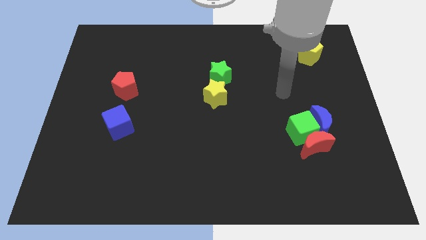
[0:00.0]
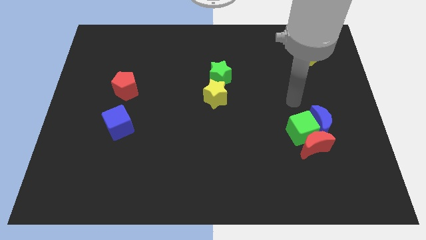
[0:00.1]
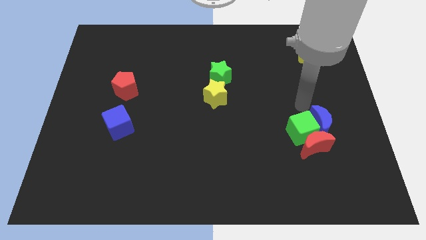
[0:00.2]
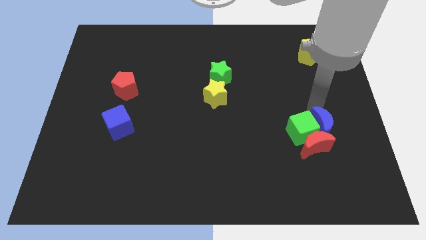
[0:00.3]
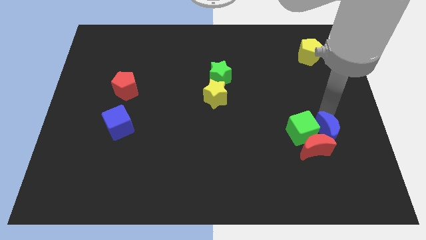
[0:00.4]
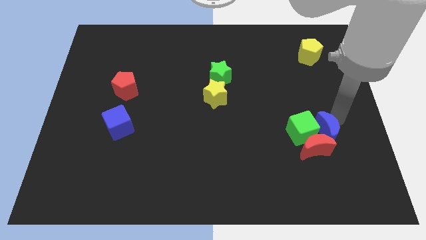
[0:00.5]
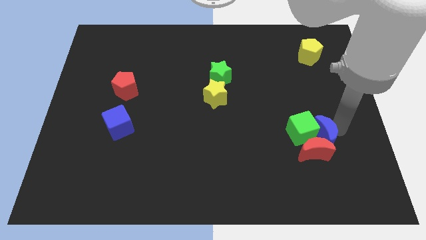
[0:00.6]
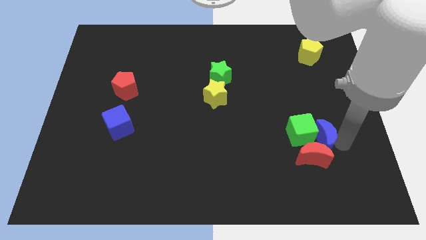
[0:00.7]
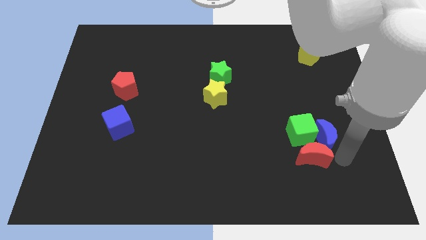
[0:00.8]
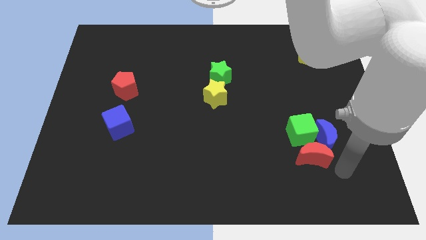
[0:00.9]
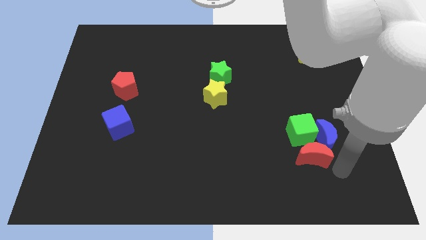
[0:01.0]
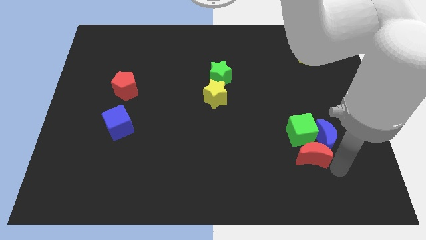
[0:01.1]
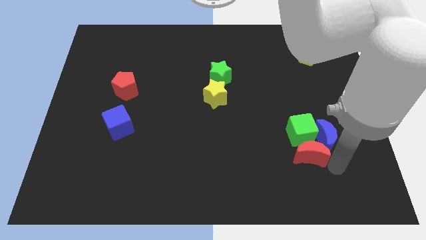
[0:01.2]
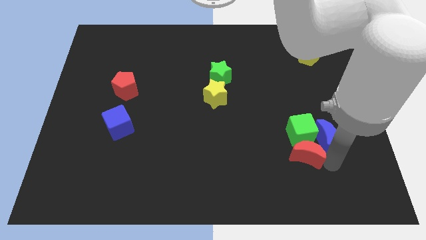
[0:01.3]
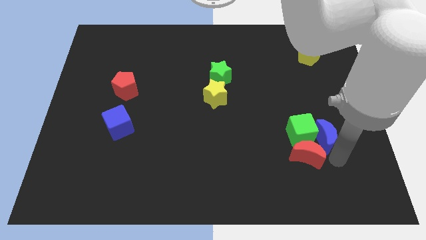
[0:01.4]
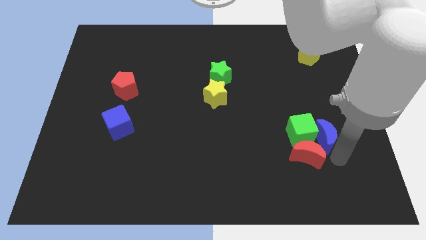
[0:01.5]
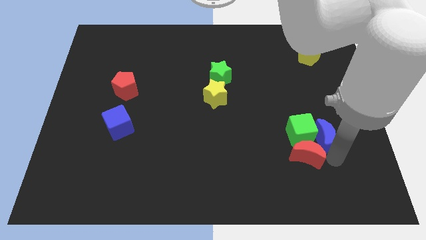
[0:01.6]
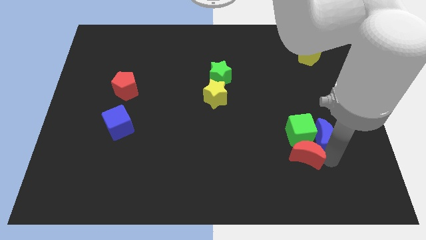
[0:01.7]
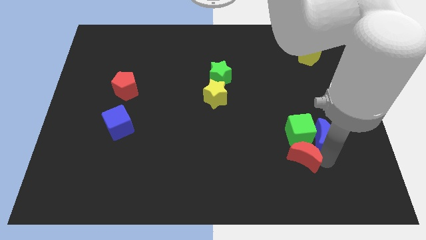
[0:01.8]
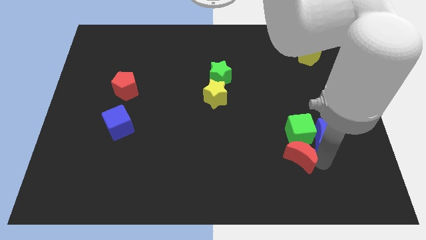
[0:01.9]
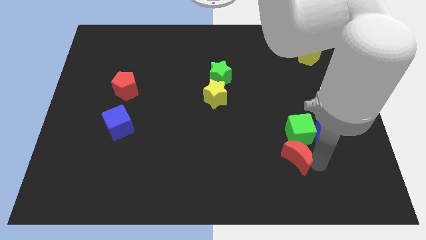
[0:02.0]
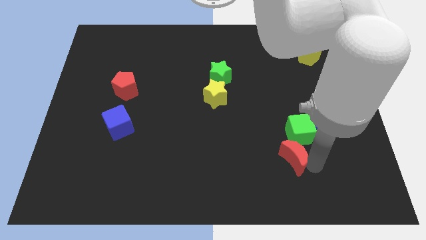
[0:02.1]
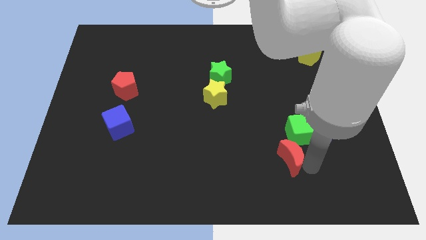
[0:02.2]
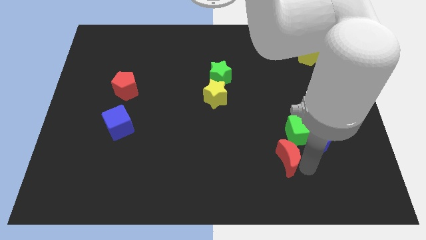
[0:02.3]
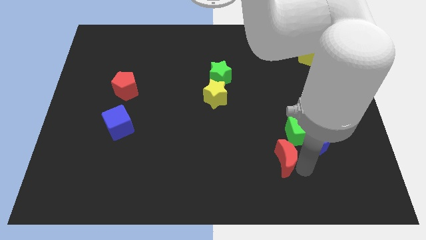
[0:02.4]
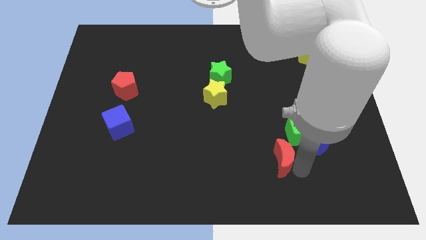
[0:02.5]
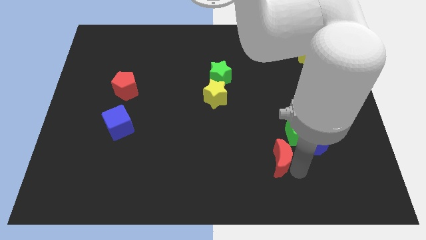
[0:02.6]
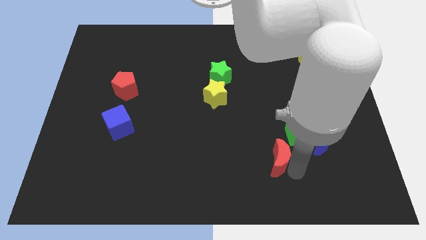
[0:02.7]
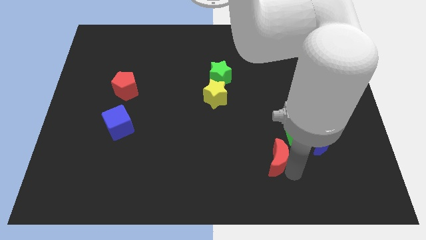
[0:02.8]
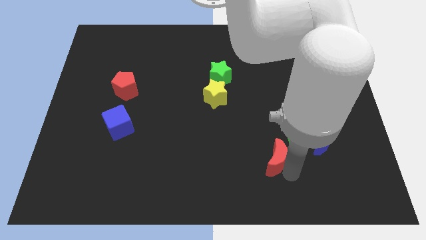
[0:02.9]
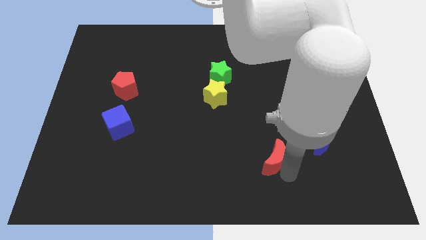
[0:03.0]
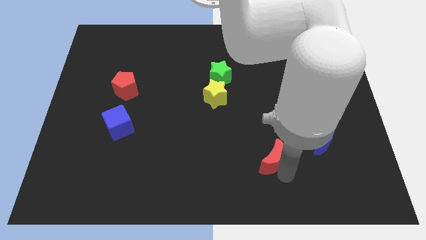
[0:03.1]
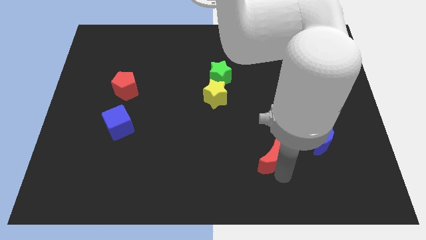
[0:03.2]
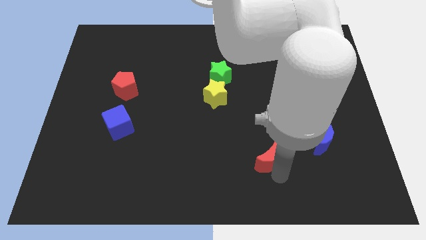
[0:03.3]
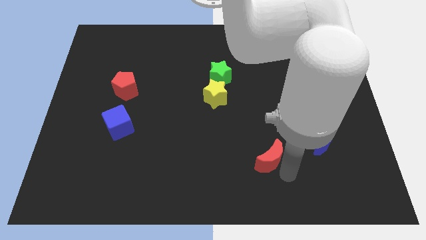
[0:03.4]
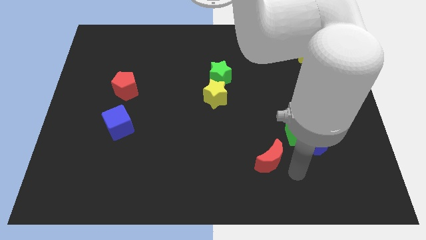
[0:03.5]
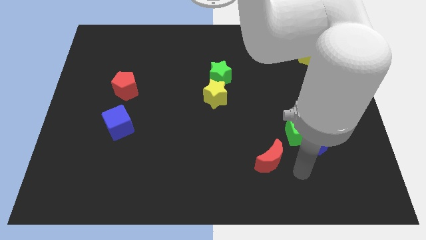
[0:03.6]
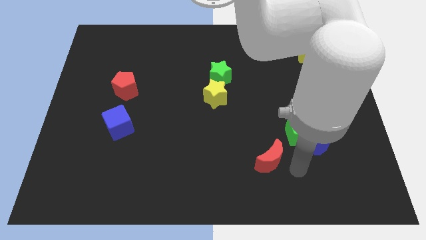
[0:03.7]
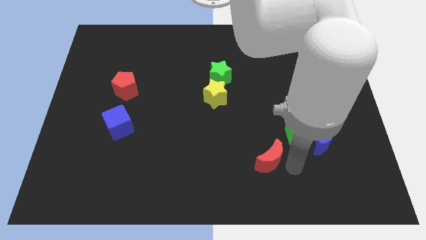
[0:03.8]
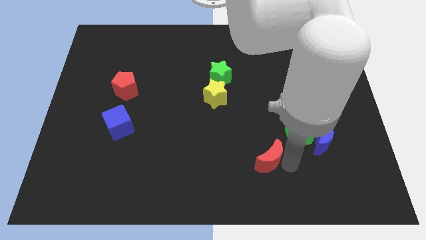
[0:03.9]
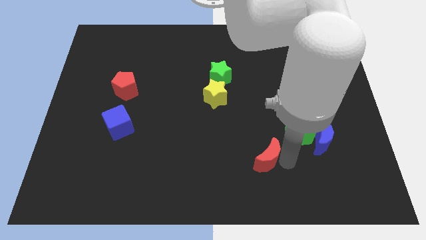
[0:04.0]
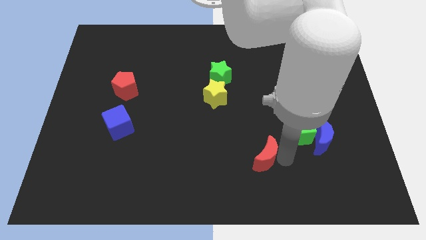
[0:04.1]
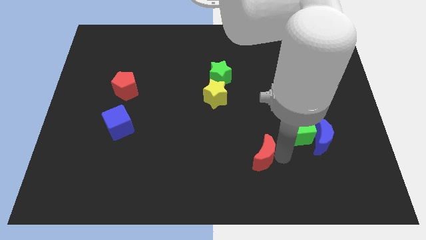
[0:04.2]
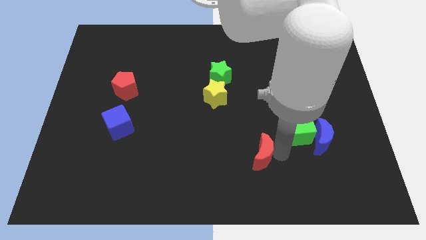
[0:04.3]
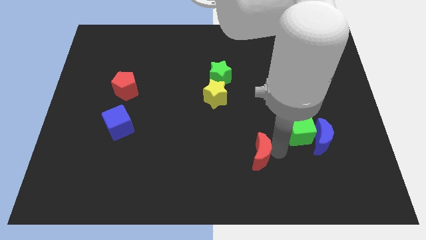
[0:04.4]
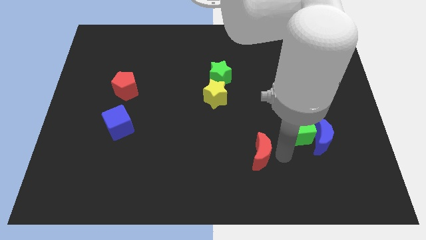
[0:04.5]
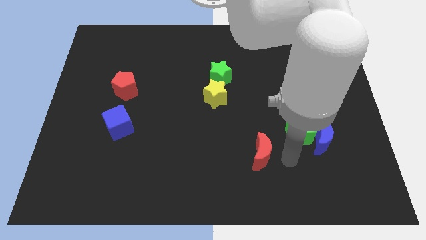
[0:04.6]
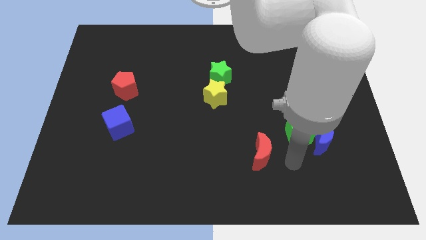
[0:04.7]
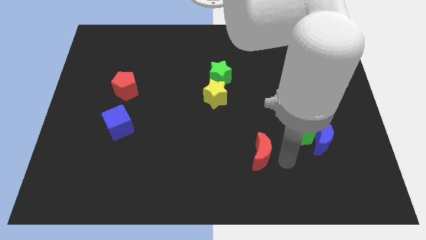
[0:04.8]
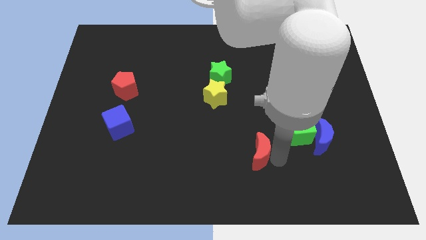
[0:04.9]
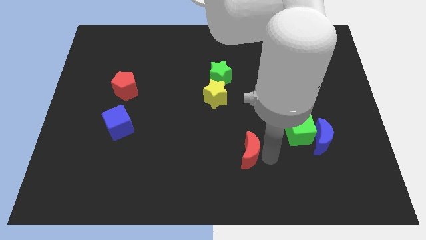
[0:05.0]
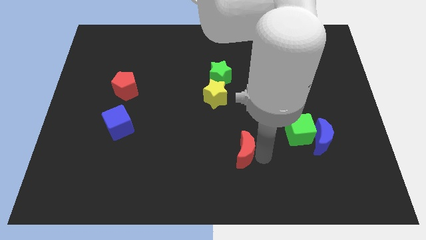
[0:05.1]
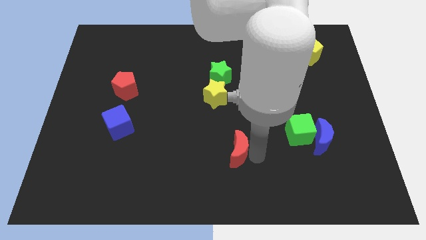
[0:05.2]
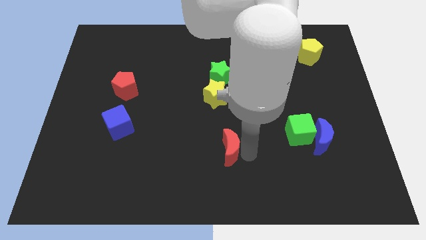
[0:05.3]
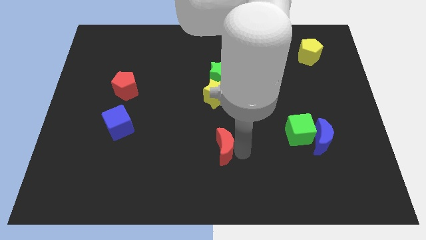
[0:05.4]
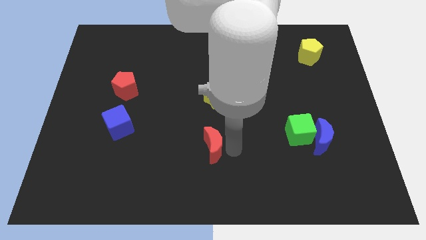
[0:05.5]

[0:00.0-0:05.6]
move the red moon left

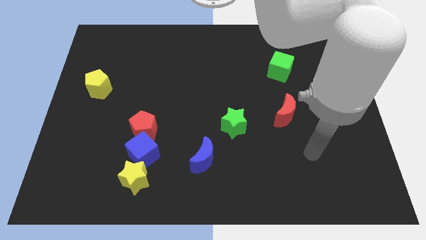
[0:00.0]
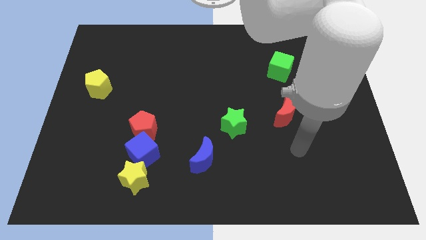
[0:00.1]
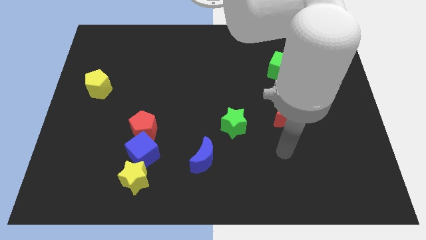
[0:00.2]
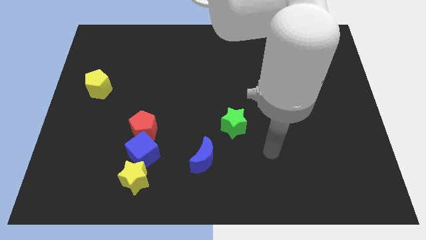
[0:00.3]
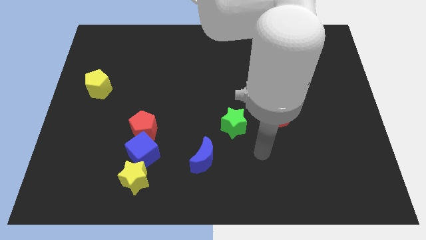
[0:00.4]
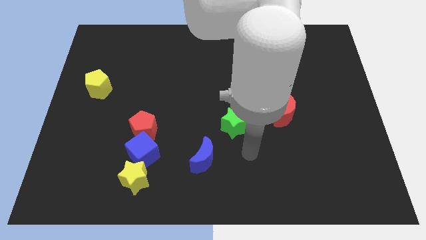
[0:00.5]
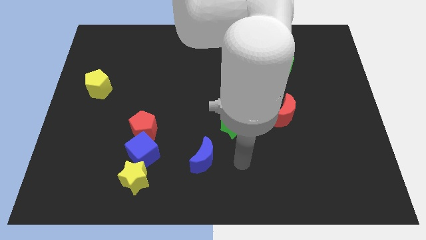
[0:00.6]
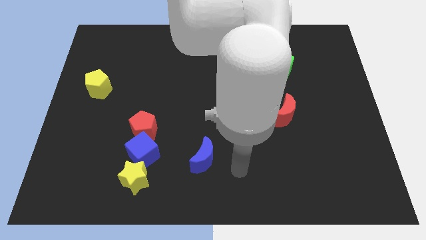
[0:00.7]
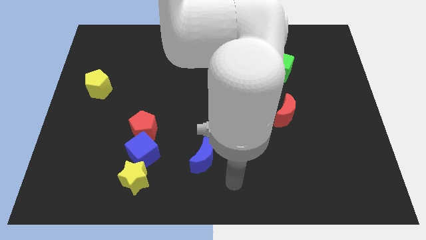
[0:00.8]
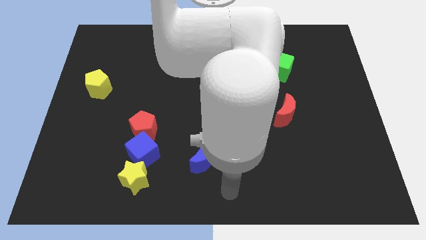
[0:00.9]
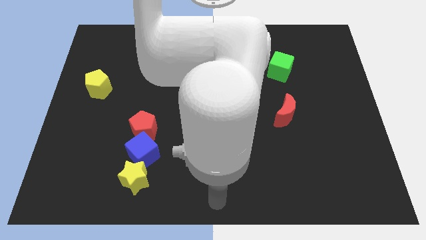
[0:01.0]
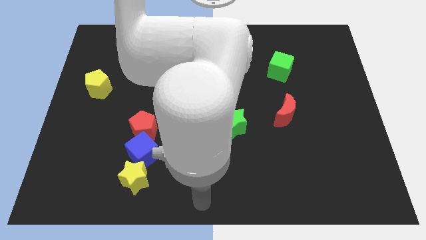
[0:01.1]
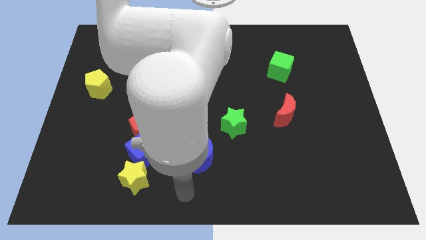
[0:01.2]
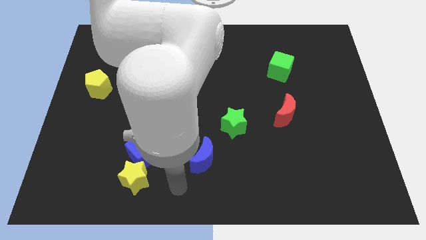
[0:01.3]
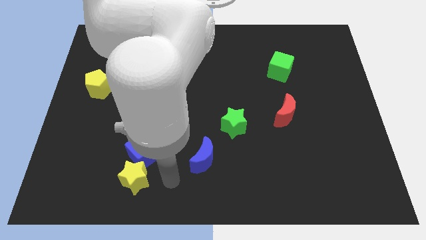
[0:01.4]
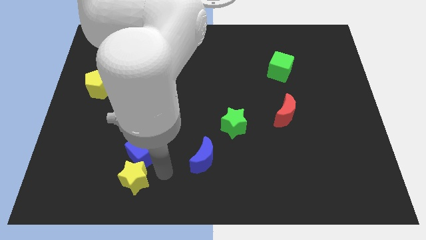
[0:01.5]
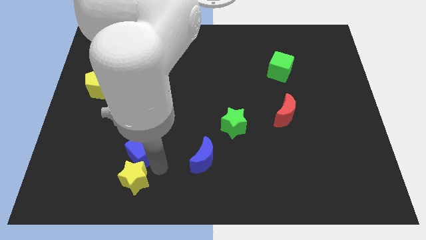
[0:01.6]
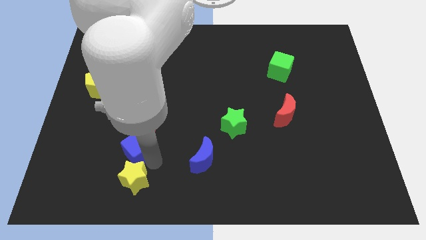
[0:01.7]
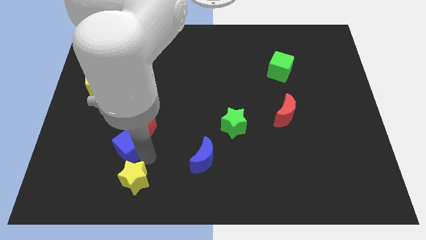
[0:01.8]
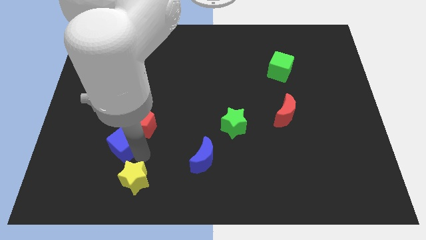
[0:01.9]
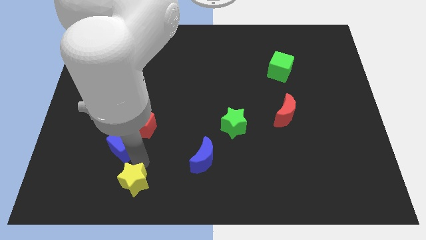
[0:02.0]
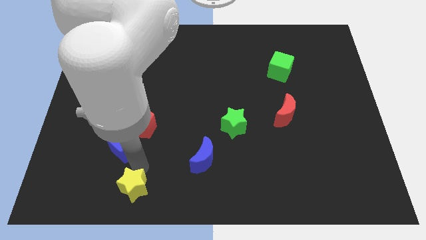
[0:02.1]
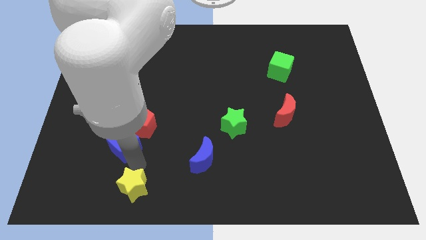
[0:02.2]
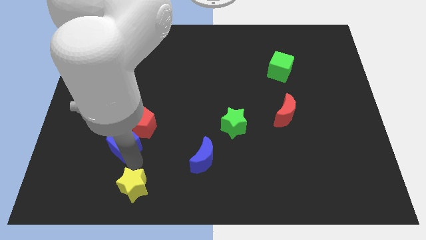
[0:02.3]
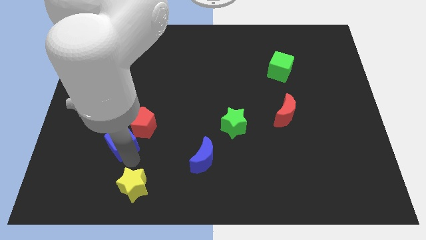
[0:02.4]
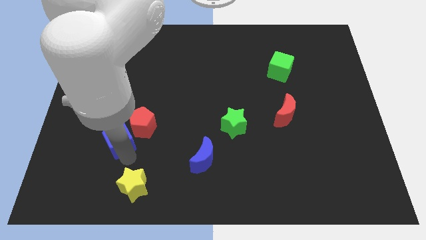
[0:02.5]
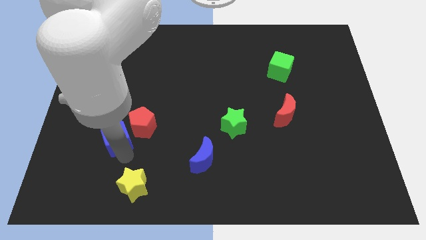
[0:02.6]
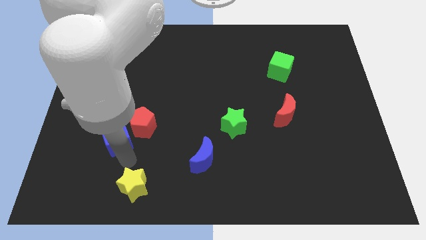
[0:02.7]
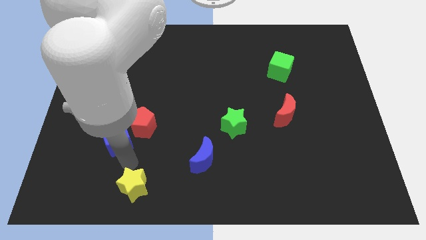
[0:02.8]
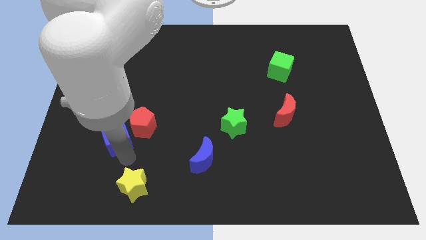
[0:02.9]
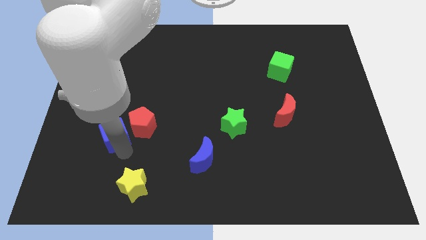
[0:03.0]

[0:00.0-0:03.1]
slightly slide the blue cube upwards and to the left
